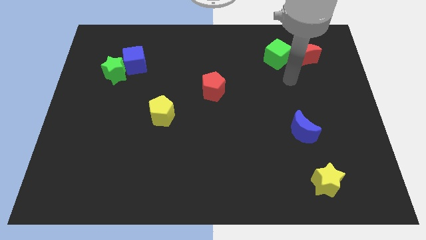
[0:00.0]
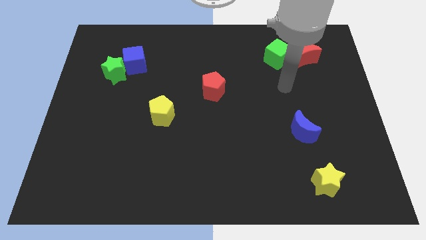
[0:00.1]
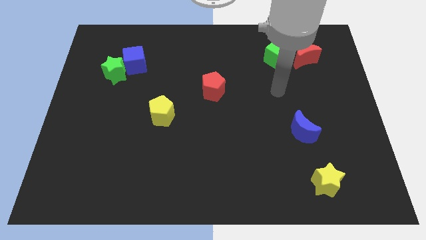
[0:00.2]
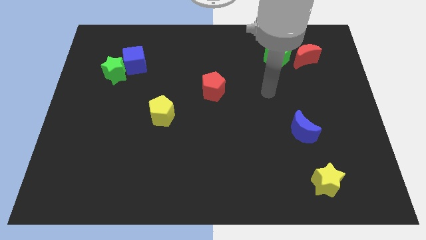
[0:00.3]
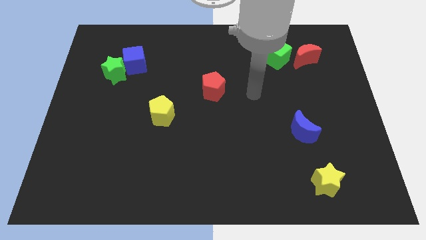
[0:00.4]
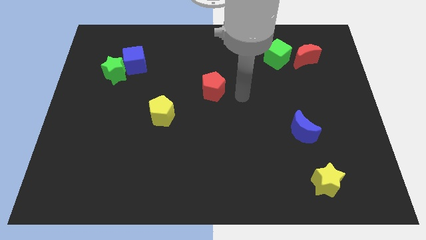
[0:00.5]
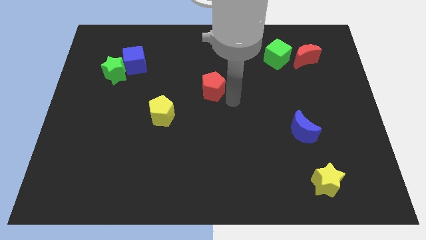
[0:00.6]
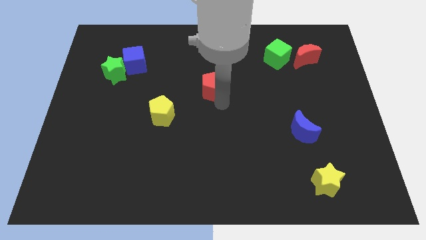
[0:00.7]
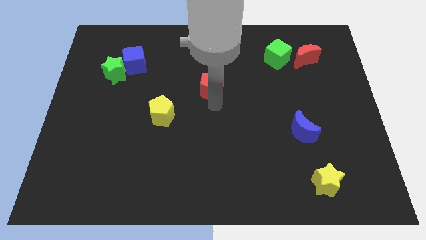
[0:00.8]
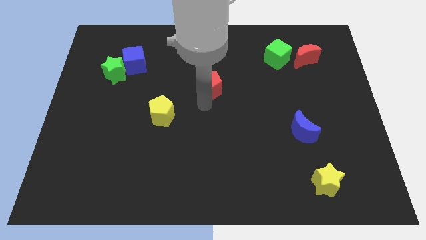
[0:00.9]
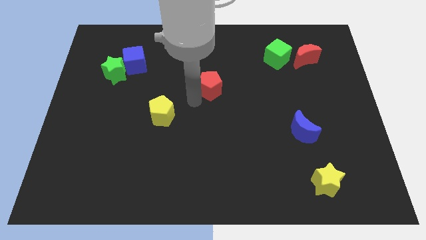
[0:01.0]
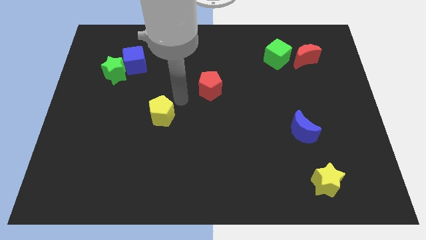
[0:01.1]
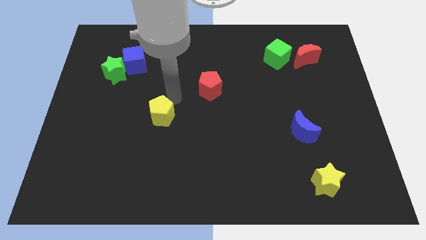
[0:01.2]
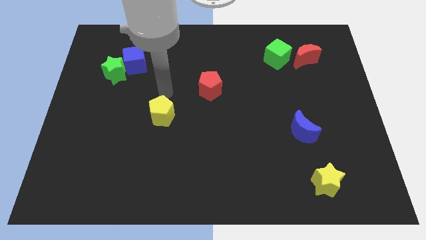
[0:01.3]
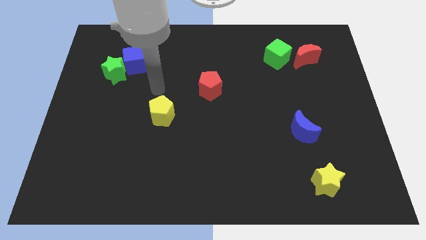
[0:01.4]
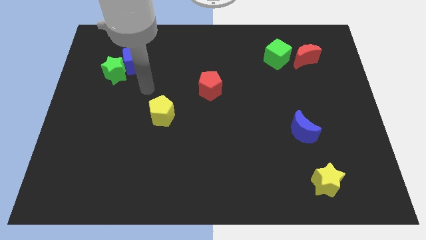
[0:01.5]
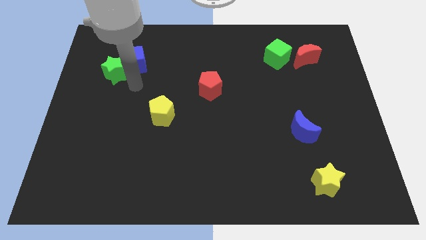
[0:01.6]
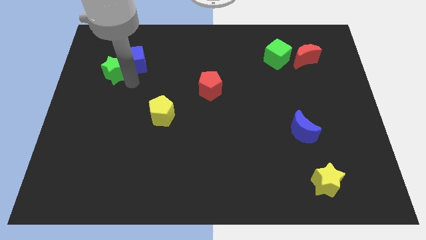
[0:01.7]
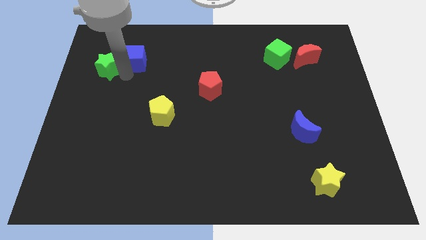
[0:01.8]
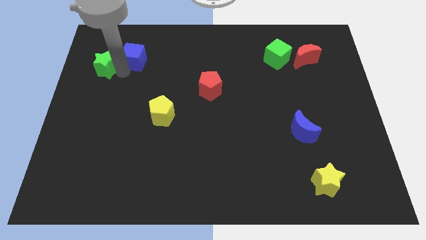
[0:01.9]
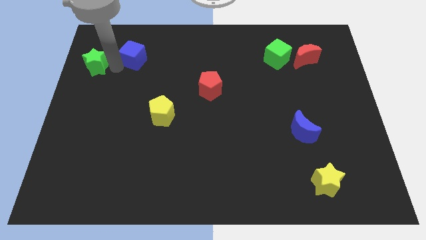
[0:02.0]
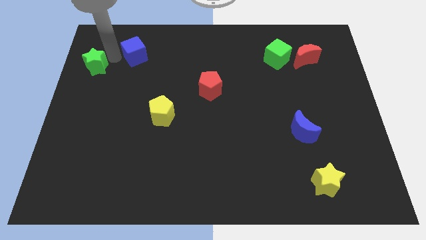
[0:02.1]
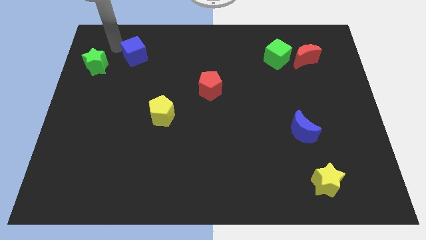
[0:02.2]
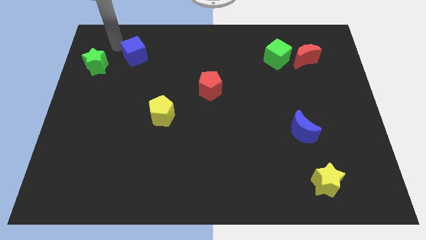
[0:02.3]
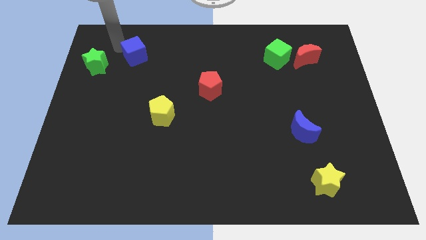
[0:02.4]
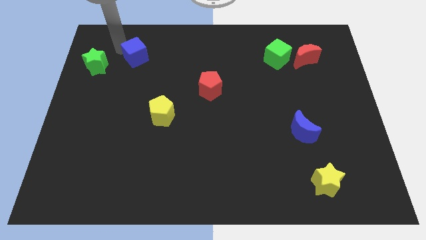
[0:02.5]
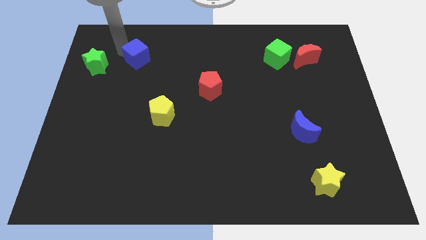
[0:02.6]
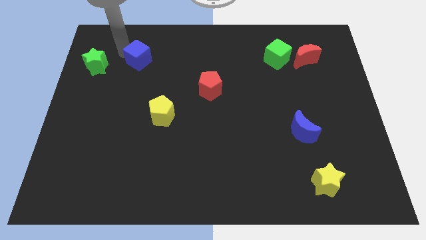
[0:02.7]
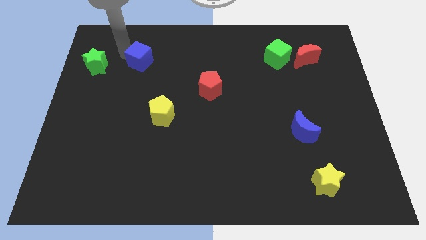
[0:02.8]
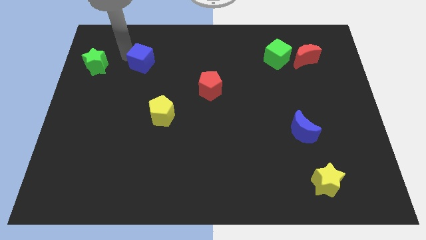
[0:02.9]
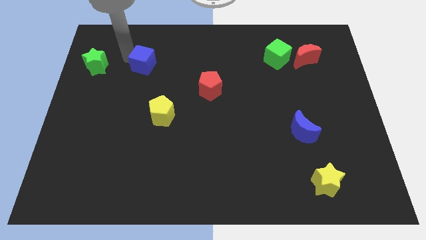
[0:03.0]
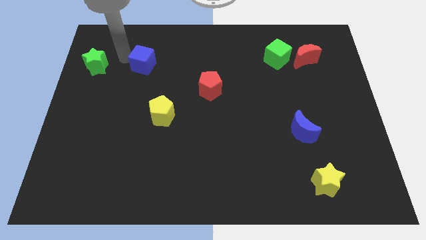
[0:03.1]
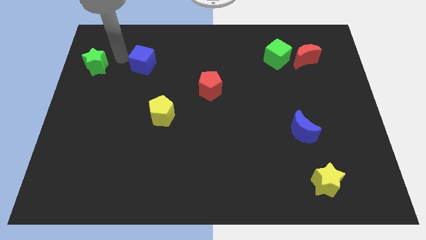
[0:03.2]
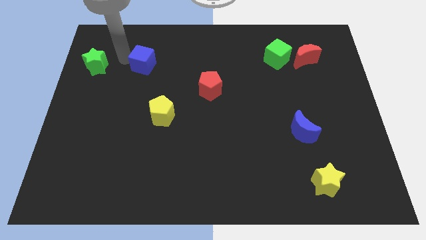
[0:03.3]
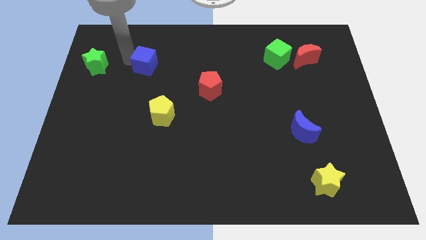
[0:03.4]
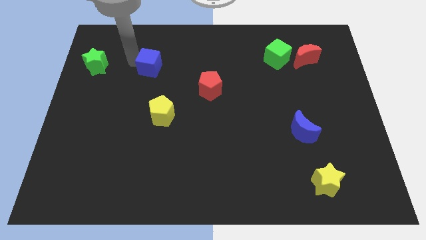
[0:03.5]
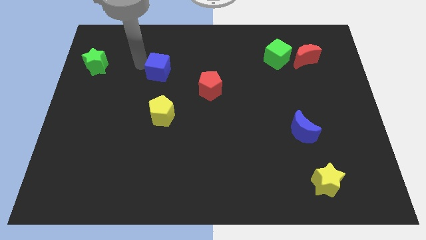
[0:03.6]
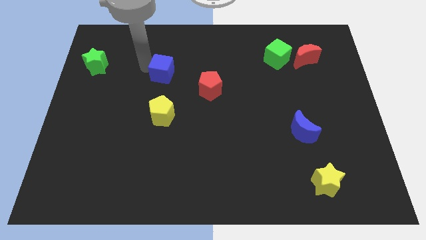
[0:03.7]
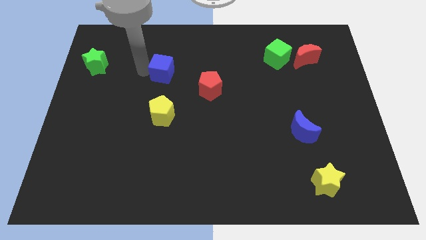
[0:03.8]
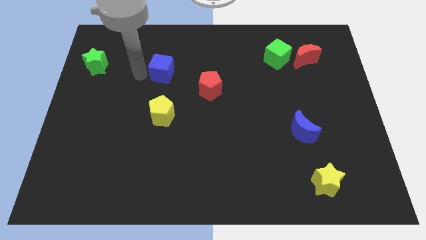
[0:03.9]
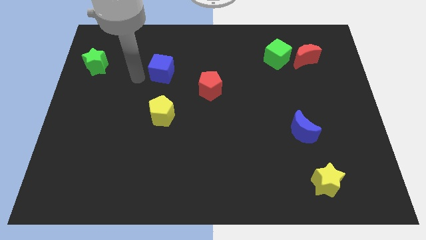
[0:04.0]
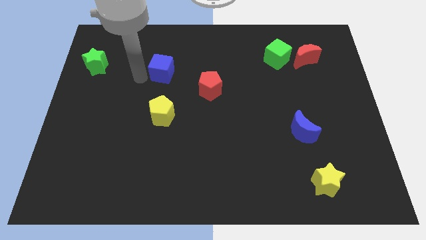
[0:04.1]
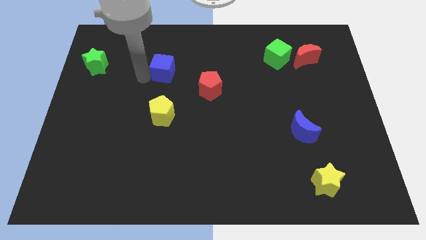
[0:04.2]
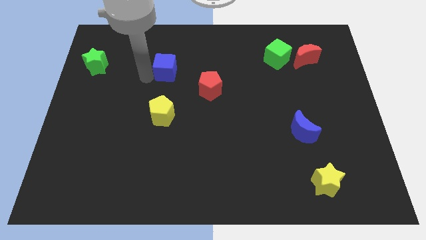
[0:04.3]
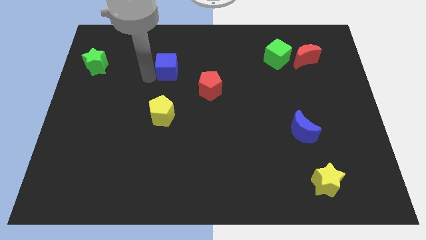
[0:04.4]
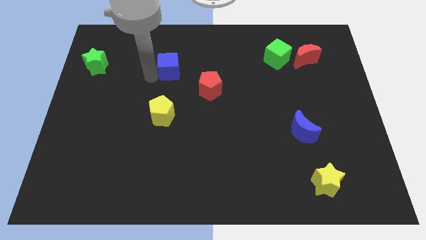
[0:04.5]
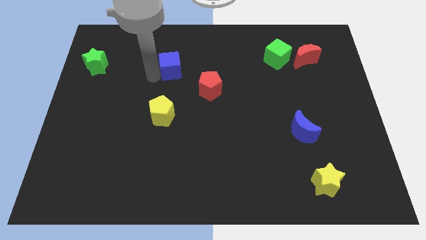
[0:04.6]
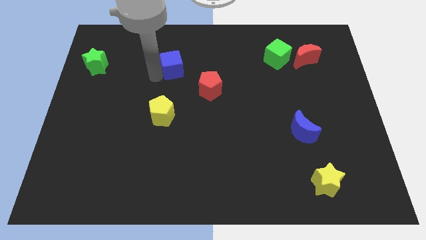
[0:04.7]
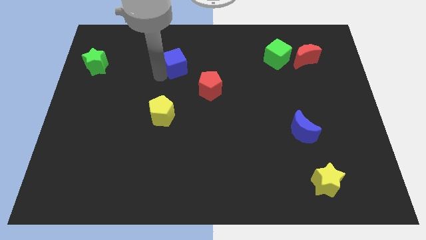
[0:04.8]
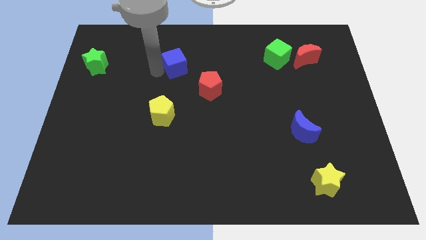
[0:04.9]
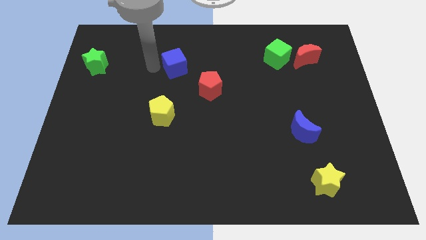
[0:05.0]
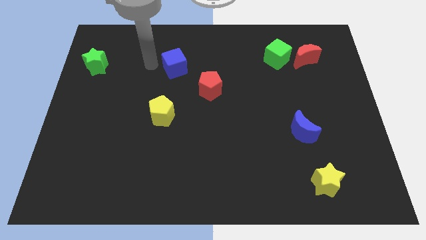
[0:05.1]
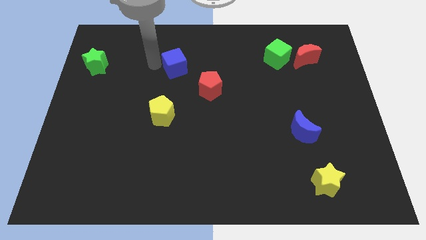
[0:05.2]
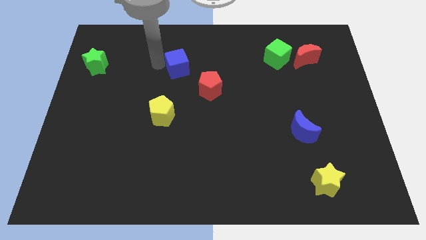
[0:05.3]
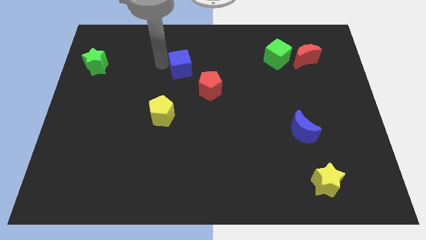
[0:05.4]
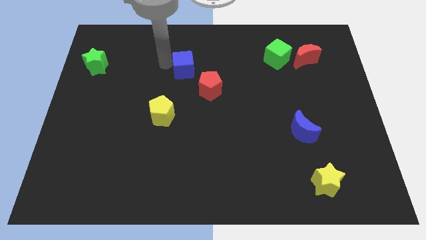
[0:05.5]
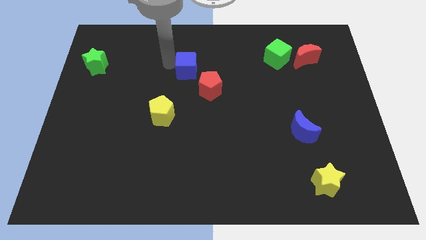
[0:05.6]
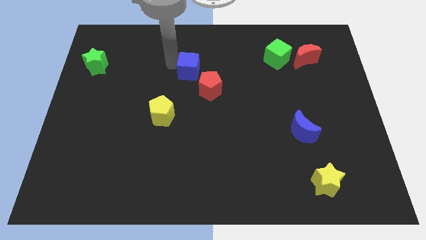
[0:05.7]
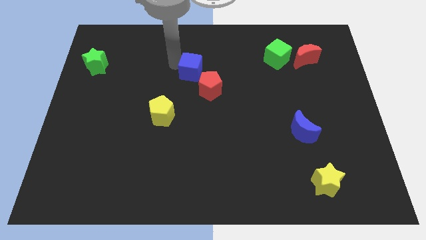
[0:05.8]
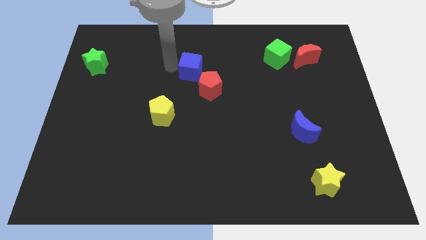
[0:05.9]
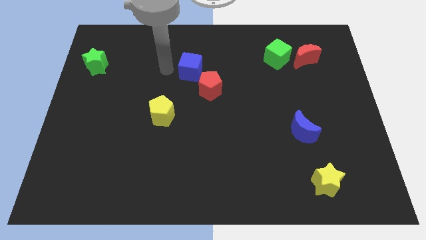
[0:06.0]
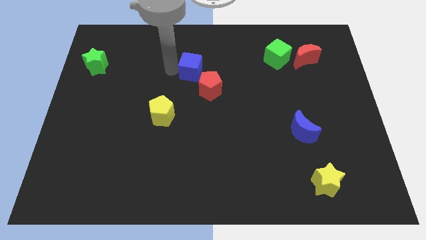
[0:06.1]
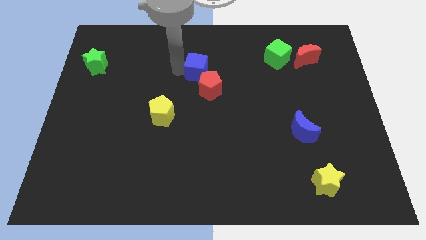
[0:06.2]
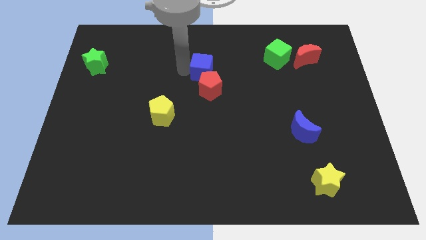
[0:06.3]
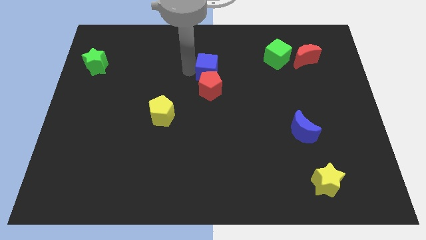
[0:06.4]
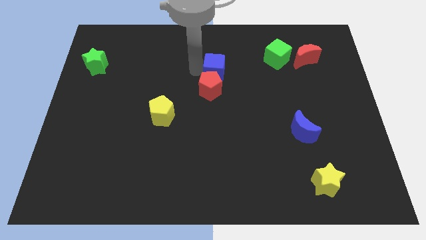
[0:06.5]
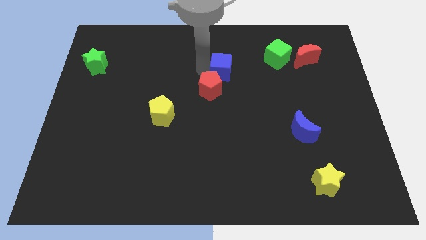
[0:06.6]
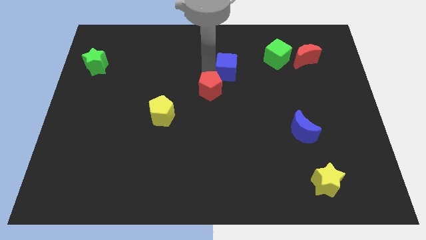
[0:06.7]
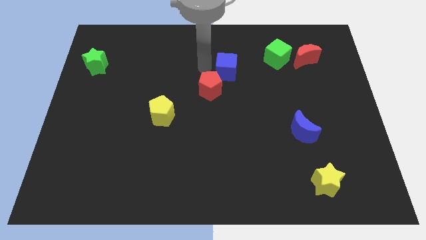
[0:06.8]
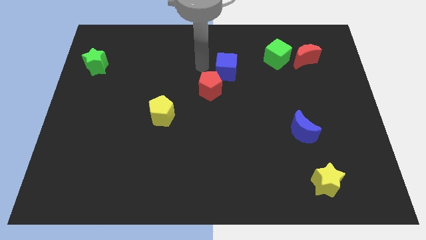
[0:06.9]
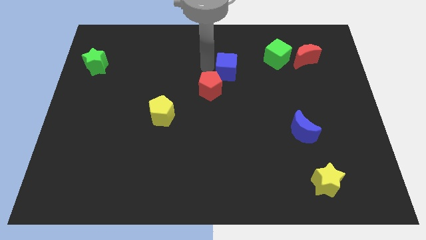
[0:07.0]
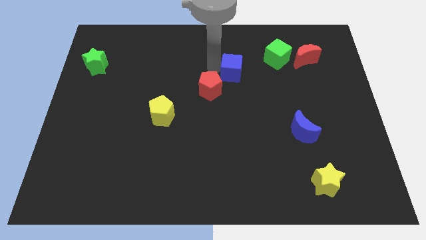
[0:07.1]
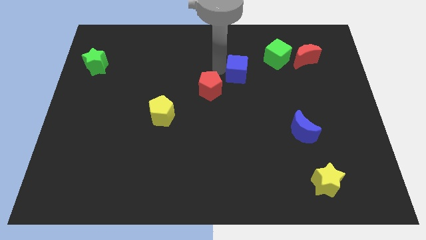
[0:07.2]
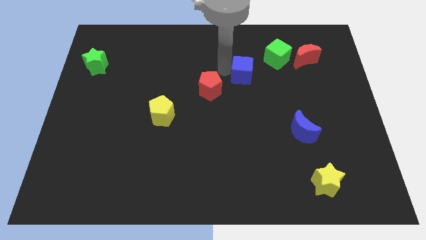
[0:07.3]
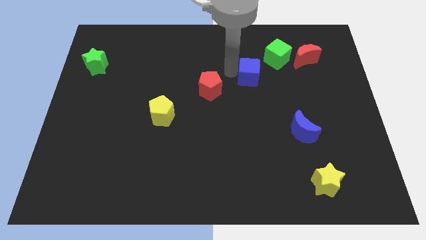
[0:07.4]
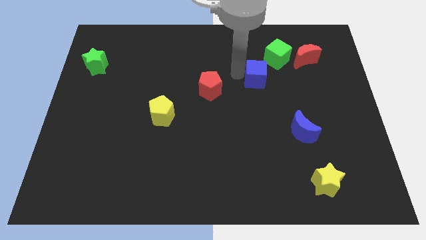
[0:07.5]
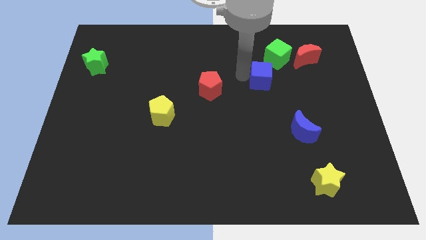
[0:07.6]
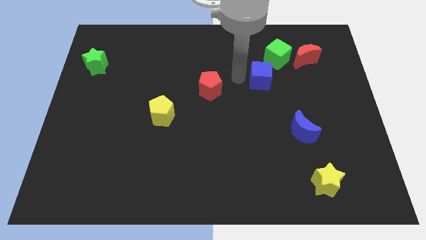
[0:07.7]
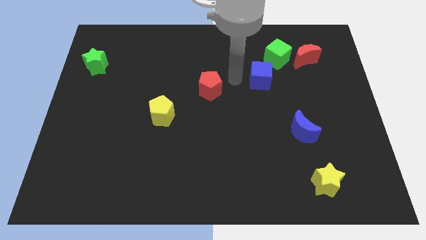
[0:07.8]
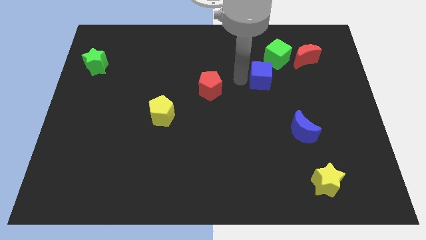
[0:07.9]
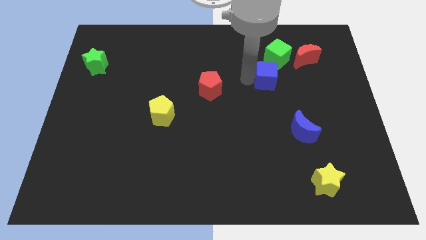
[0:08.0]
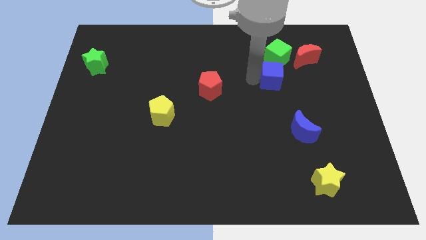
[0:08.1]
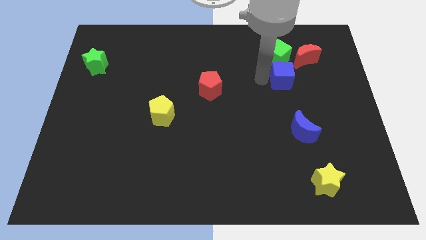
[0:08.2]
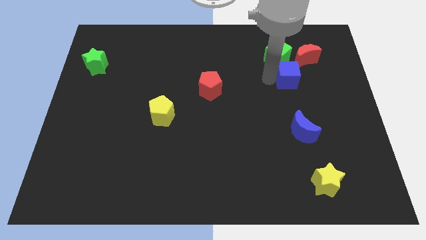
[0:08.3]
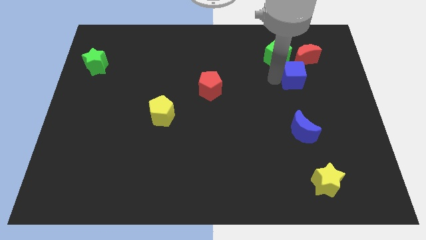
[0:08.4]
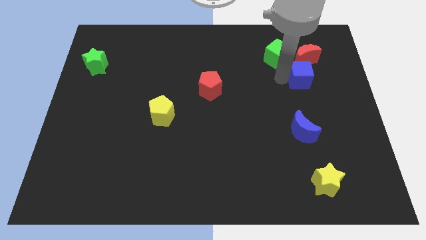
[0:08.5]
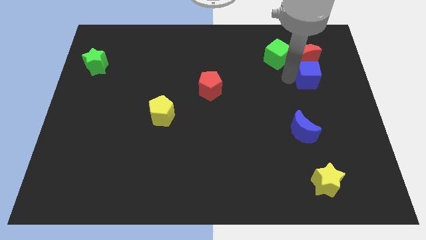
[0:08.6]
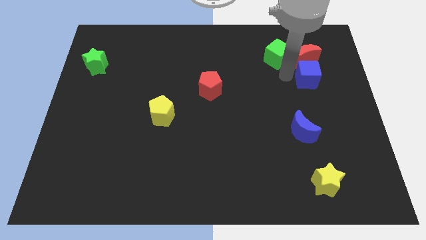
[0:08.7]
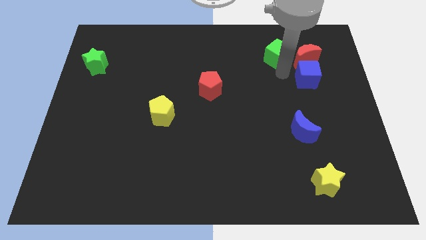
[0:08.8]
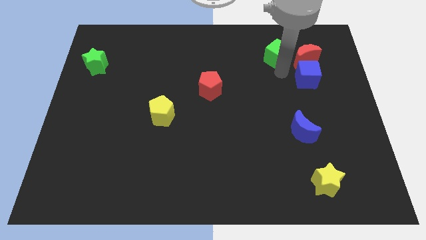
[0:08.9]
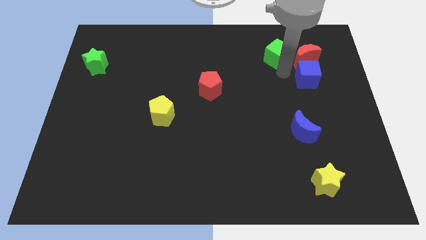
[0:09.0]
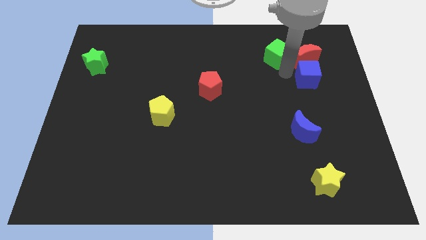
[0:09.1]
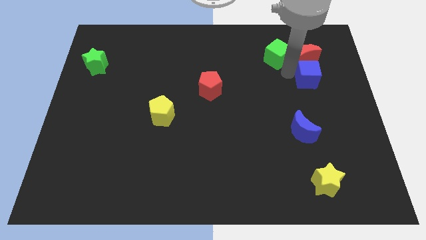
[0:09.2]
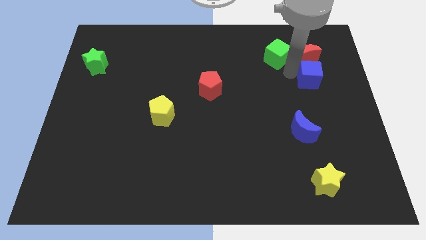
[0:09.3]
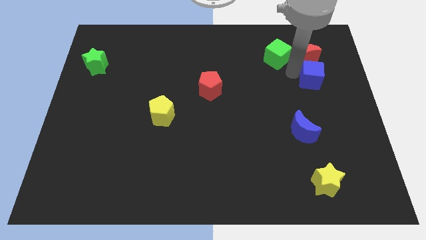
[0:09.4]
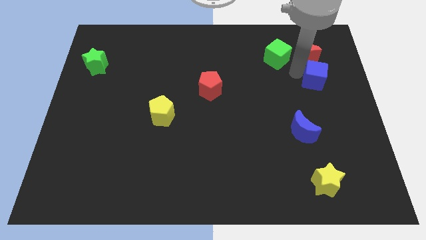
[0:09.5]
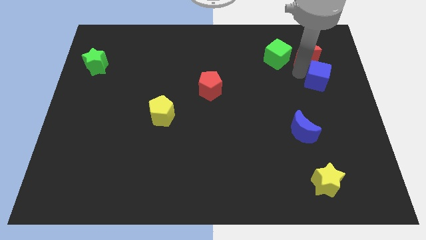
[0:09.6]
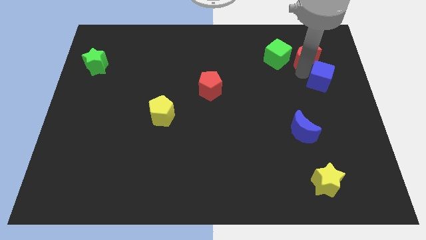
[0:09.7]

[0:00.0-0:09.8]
put the blue cube to the center right
